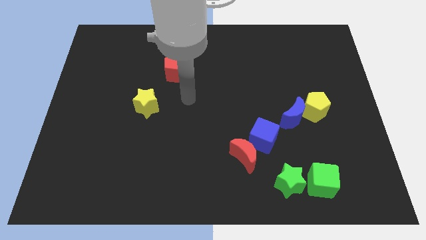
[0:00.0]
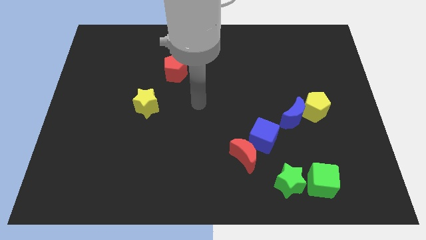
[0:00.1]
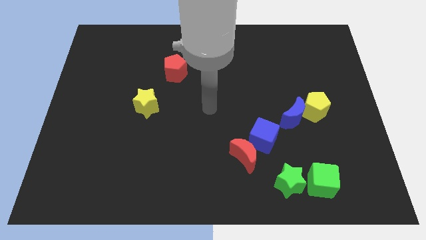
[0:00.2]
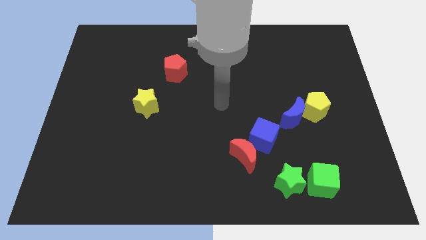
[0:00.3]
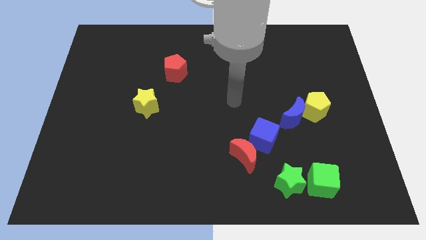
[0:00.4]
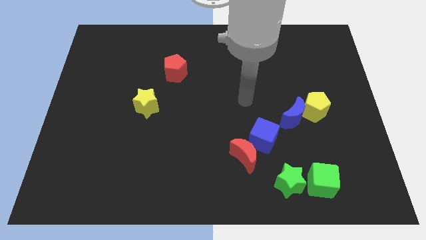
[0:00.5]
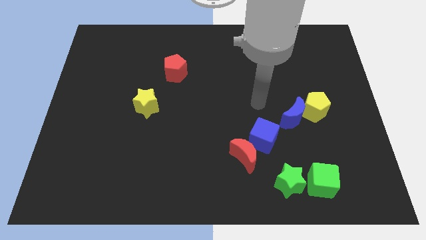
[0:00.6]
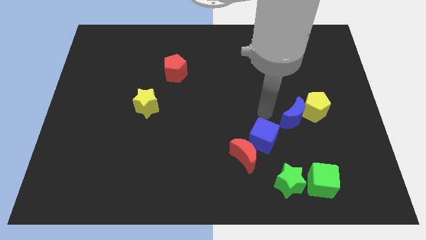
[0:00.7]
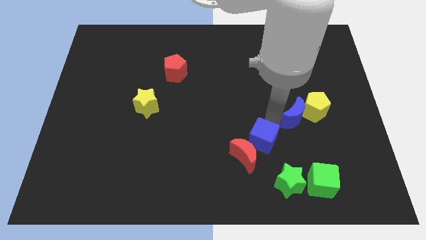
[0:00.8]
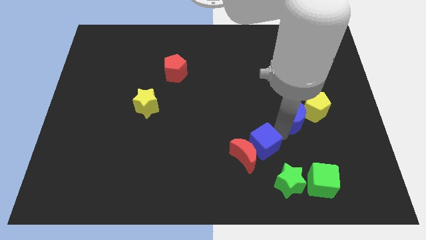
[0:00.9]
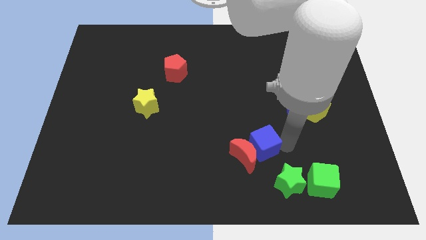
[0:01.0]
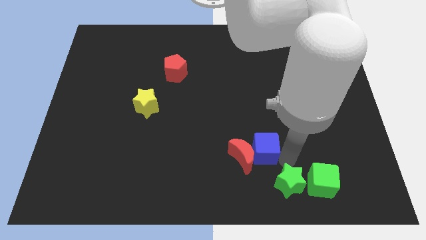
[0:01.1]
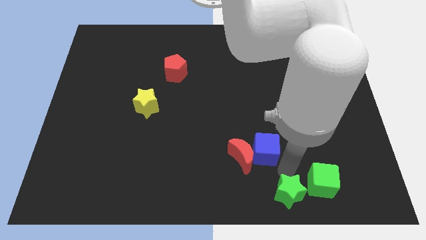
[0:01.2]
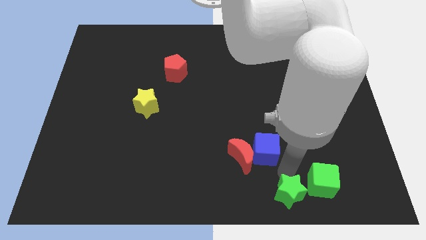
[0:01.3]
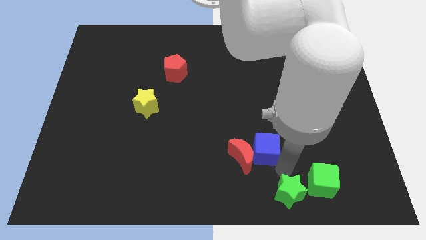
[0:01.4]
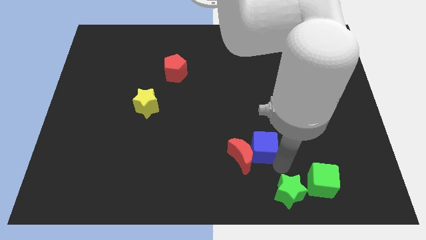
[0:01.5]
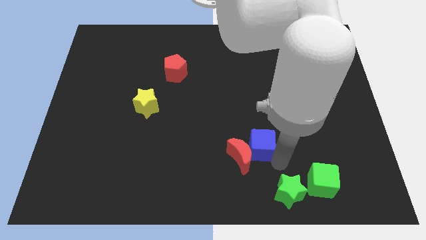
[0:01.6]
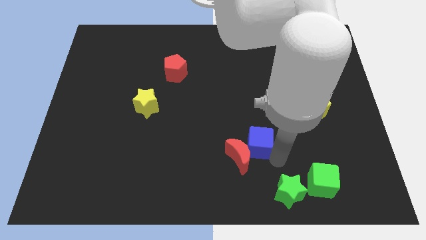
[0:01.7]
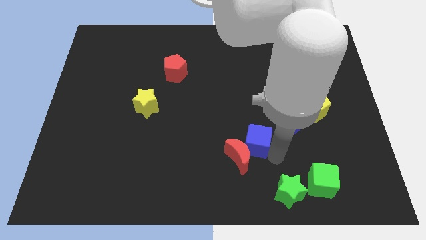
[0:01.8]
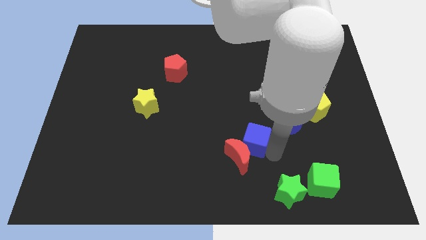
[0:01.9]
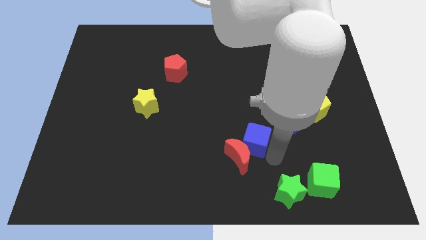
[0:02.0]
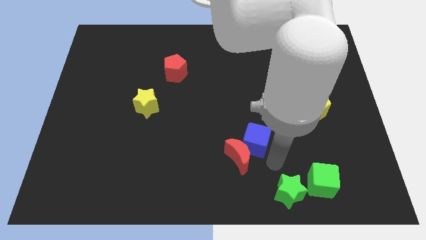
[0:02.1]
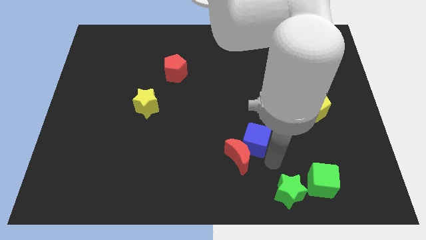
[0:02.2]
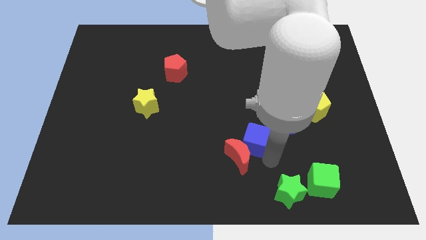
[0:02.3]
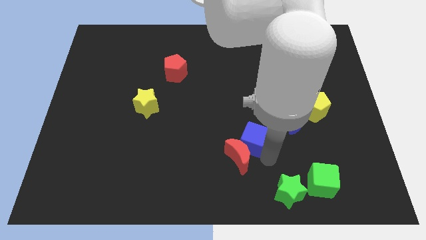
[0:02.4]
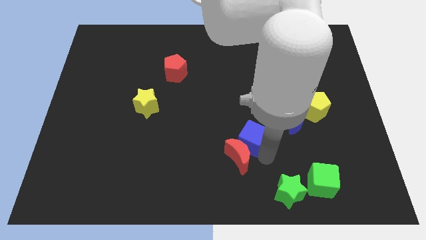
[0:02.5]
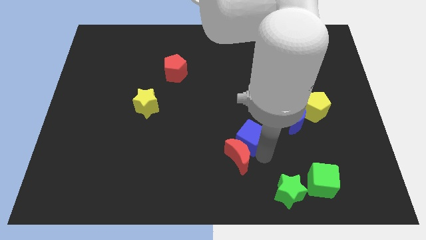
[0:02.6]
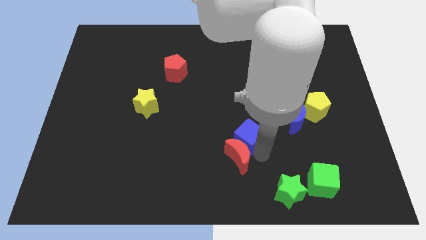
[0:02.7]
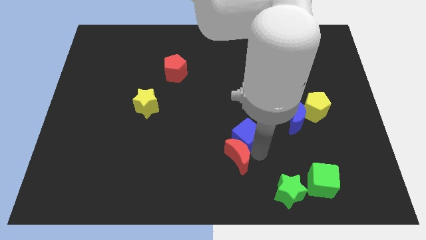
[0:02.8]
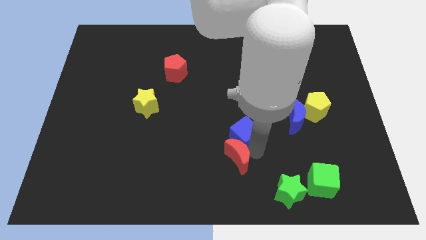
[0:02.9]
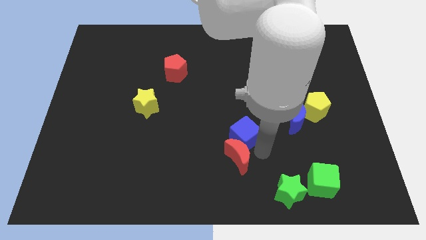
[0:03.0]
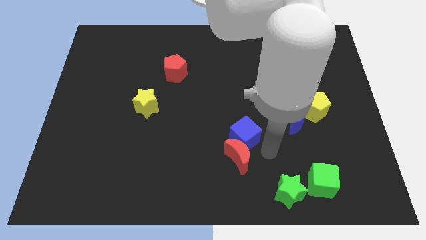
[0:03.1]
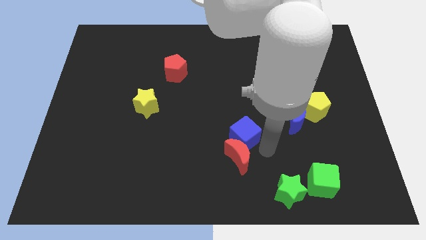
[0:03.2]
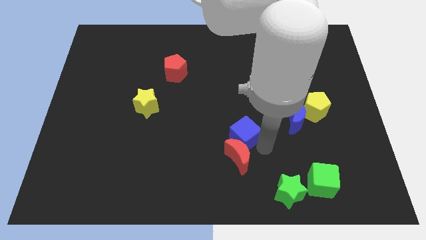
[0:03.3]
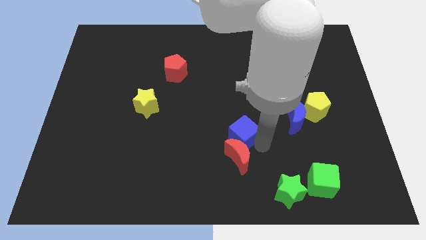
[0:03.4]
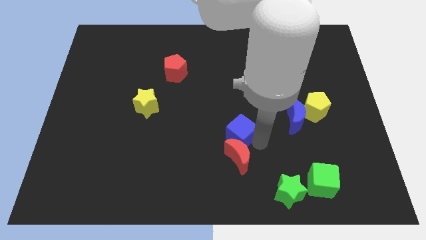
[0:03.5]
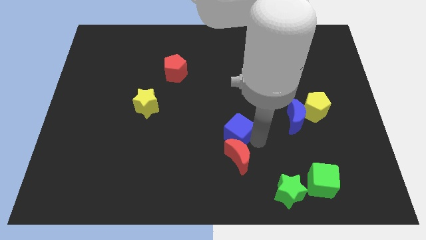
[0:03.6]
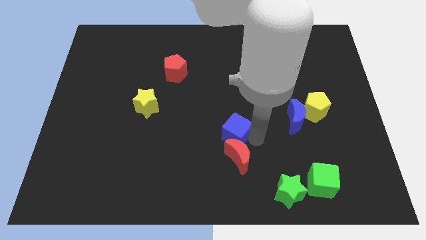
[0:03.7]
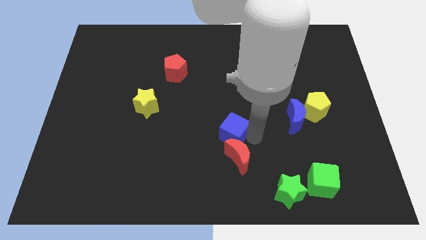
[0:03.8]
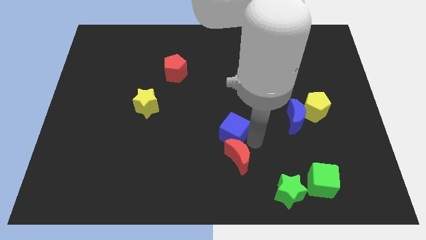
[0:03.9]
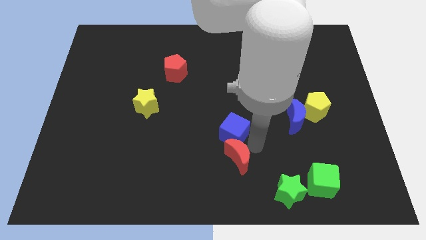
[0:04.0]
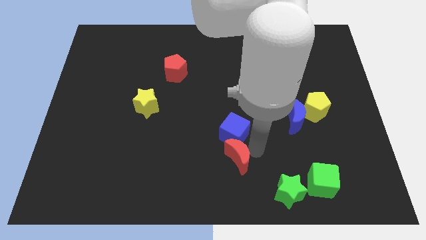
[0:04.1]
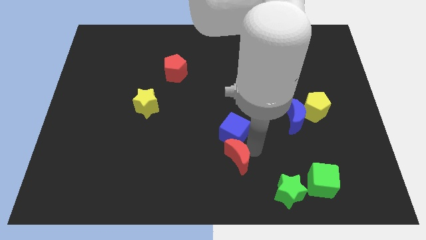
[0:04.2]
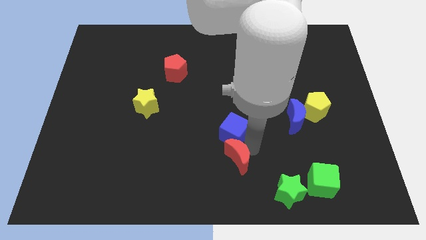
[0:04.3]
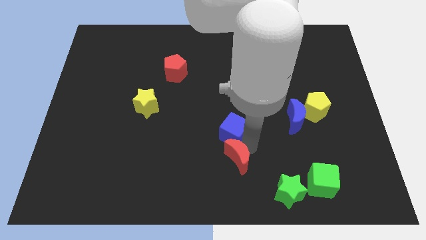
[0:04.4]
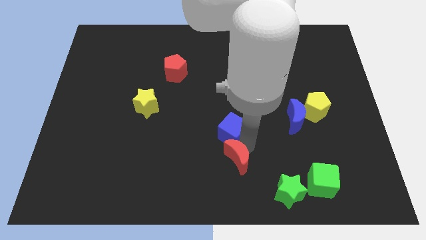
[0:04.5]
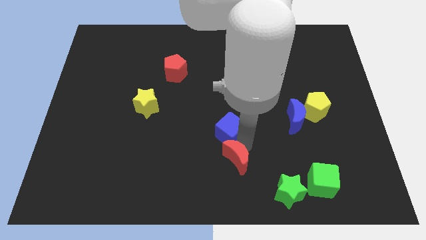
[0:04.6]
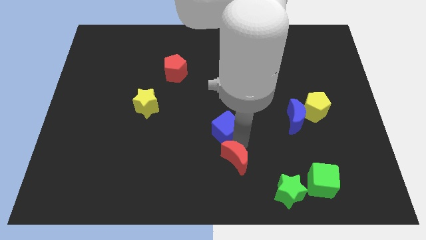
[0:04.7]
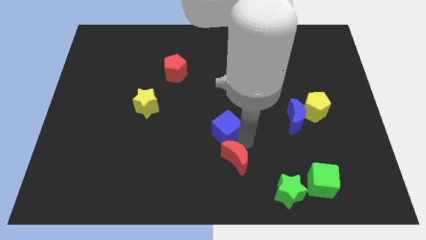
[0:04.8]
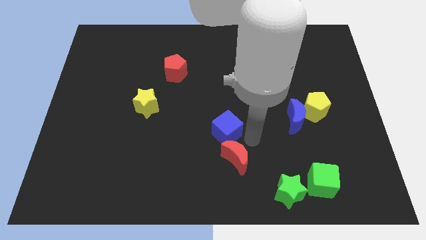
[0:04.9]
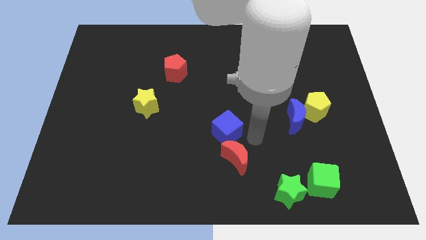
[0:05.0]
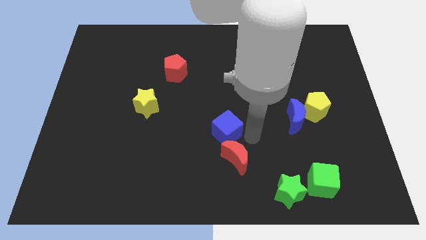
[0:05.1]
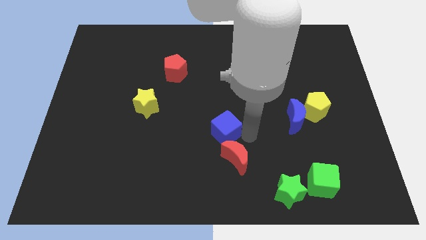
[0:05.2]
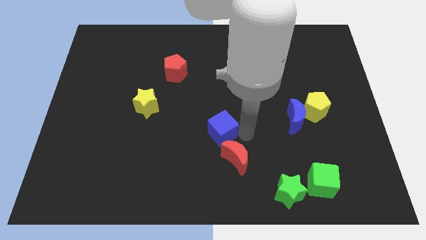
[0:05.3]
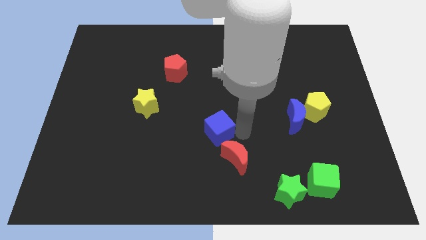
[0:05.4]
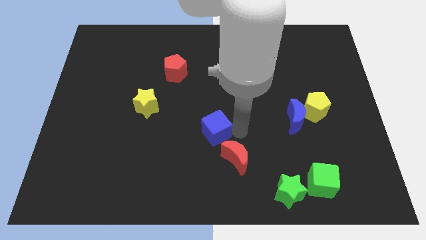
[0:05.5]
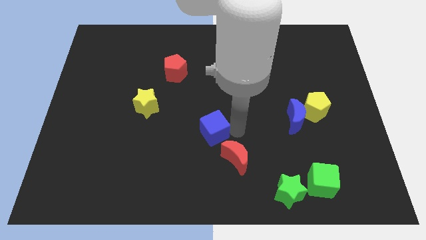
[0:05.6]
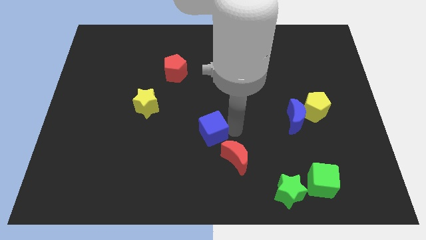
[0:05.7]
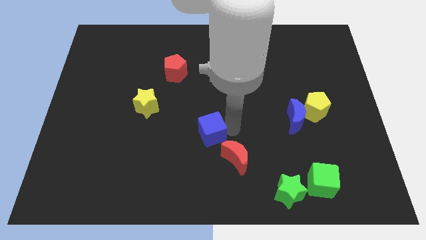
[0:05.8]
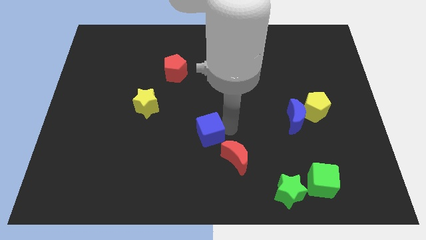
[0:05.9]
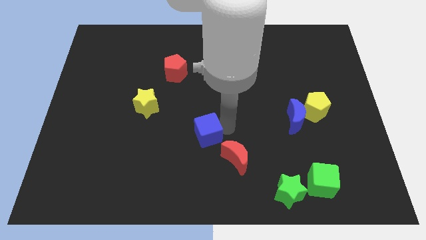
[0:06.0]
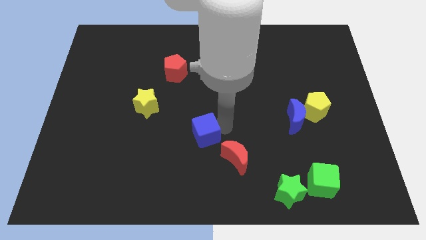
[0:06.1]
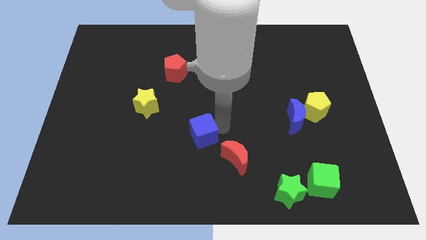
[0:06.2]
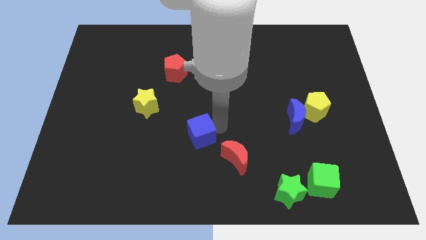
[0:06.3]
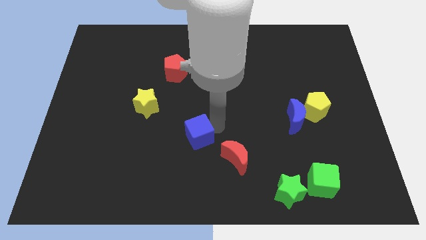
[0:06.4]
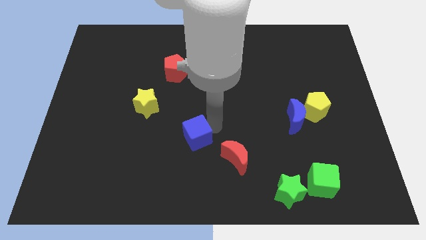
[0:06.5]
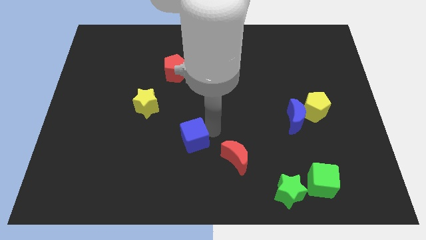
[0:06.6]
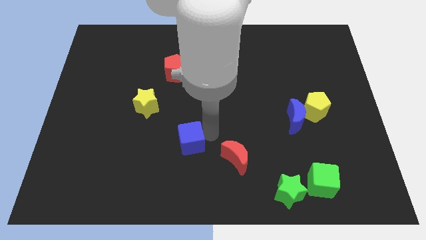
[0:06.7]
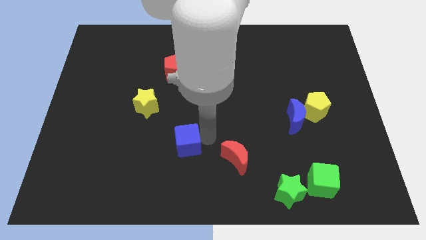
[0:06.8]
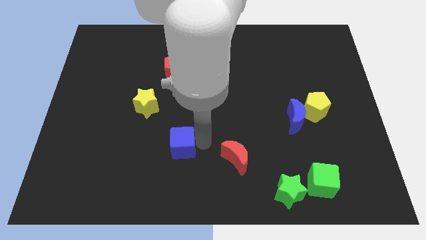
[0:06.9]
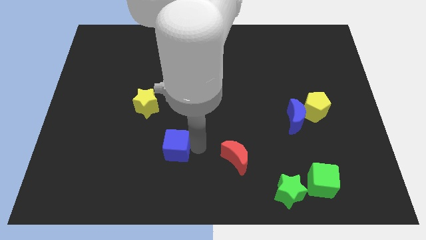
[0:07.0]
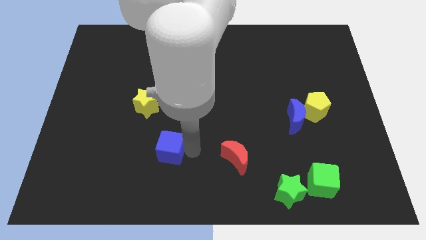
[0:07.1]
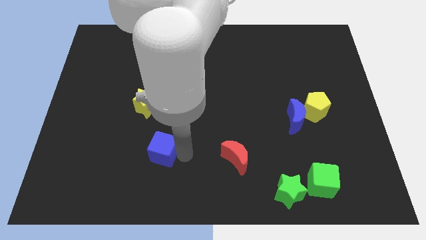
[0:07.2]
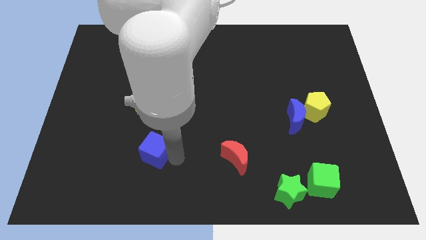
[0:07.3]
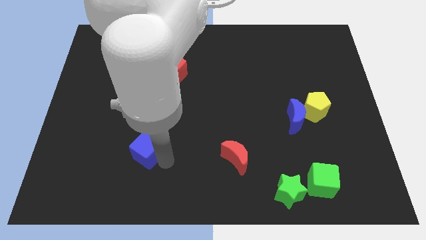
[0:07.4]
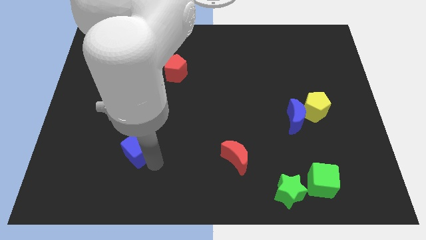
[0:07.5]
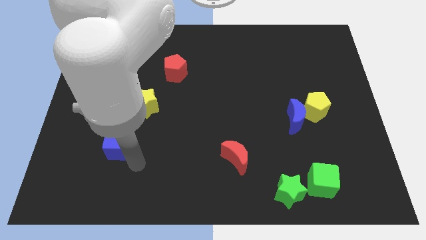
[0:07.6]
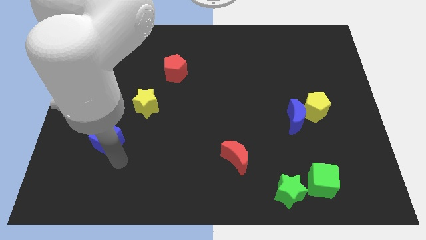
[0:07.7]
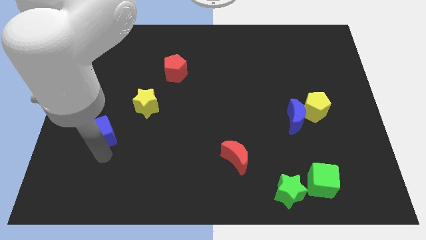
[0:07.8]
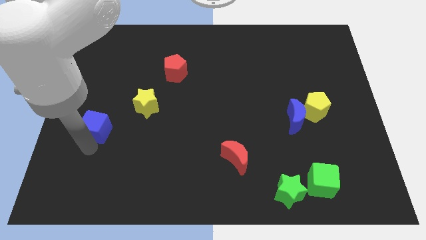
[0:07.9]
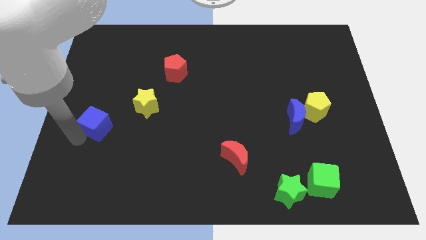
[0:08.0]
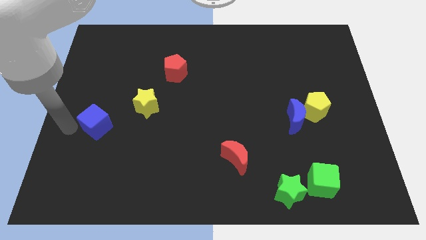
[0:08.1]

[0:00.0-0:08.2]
move the blue cube to the center left
